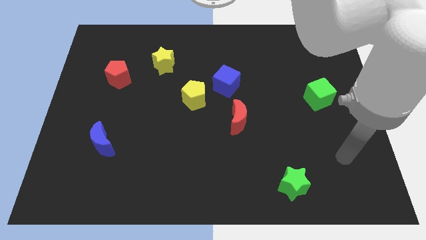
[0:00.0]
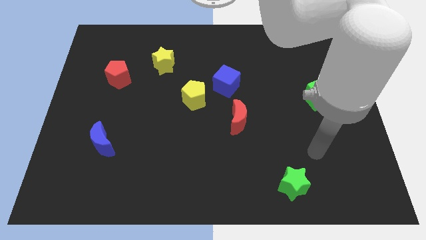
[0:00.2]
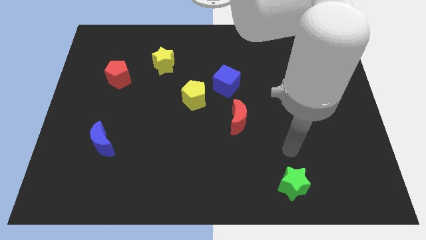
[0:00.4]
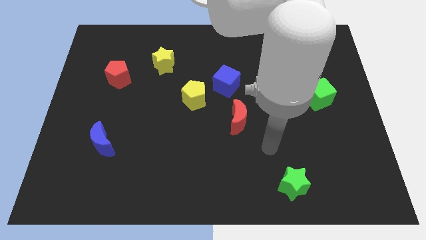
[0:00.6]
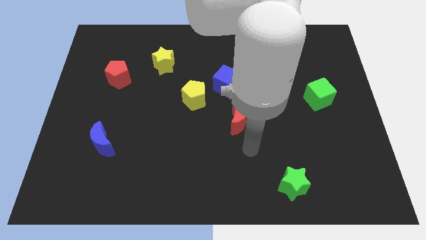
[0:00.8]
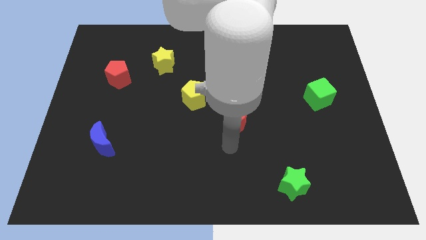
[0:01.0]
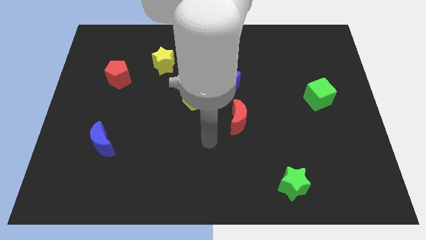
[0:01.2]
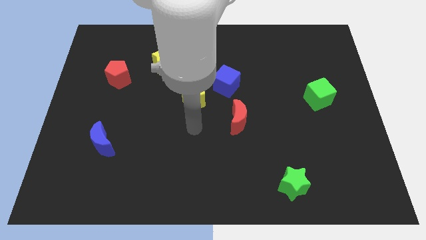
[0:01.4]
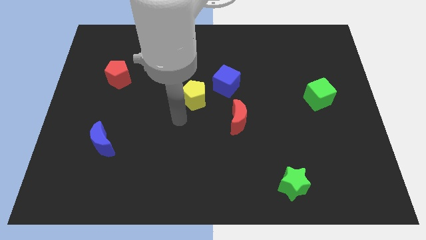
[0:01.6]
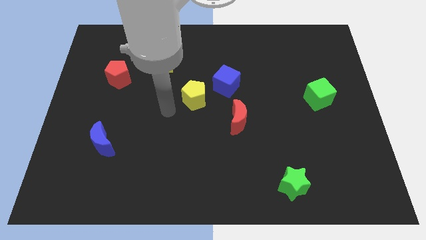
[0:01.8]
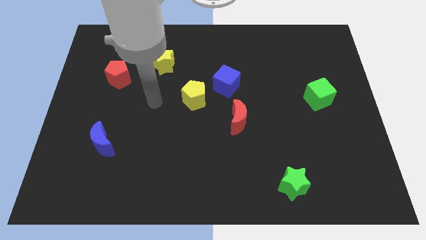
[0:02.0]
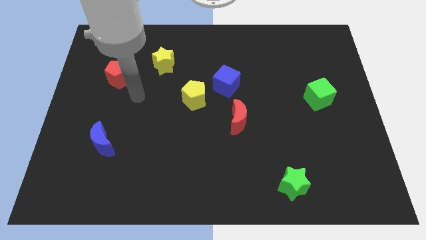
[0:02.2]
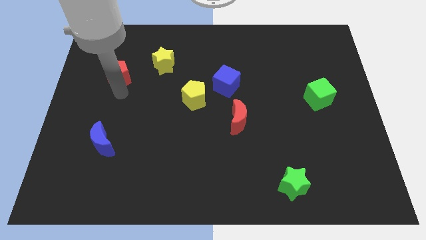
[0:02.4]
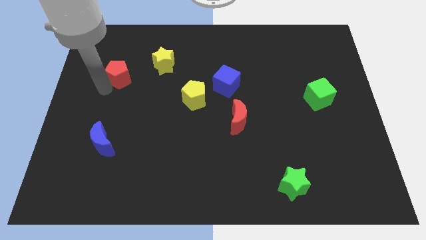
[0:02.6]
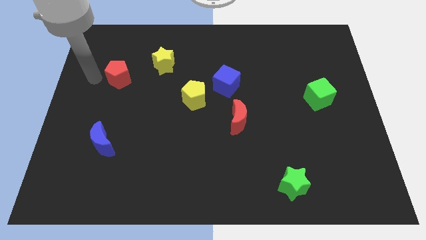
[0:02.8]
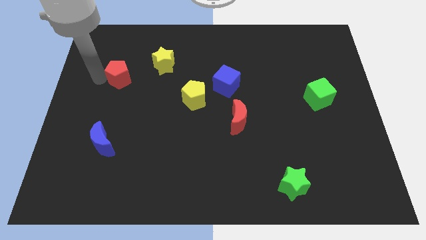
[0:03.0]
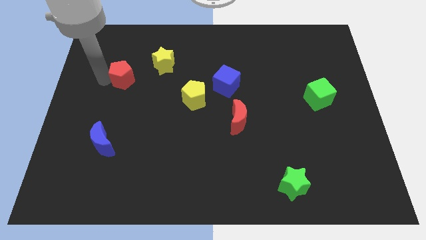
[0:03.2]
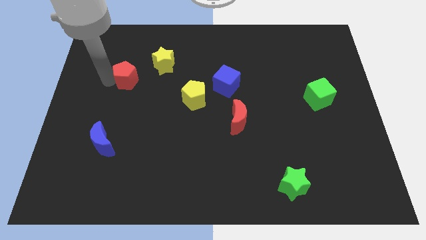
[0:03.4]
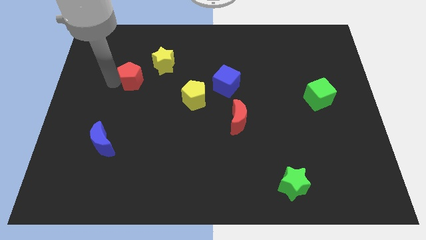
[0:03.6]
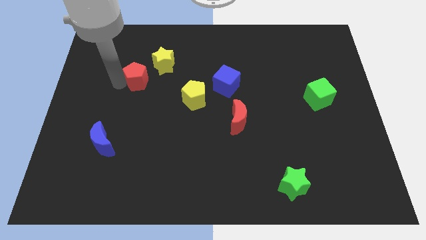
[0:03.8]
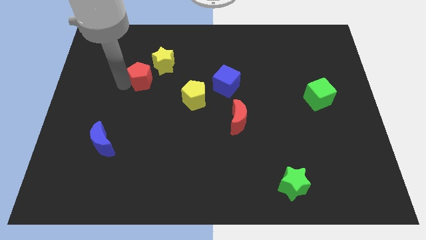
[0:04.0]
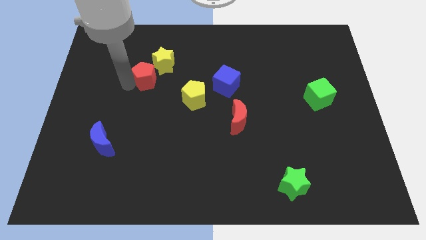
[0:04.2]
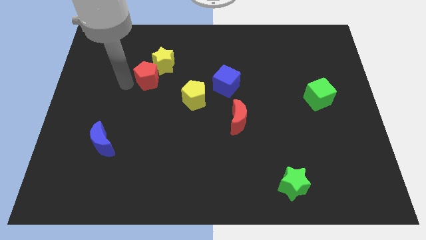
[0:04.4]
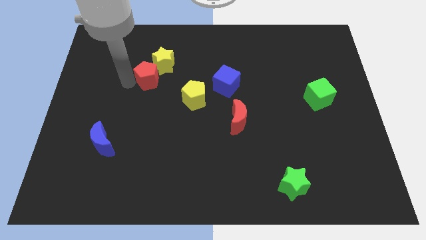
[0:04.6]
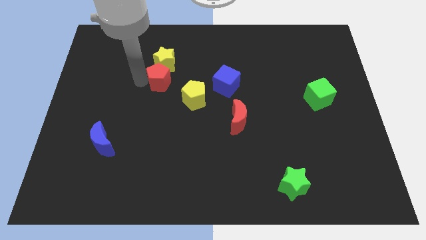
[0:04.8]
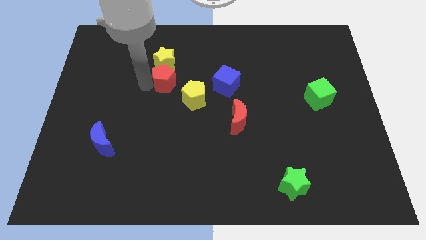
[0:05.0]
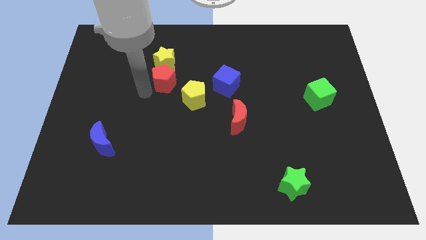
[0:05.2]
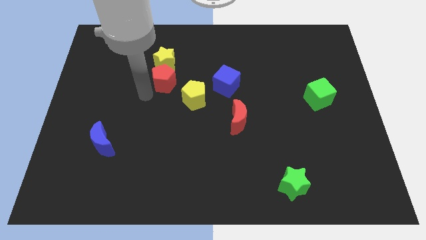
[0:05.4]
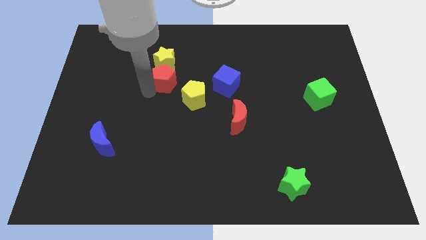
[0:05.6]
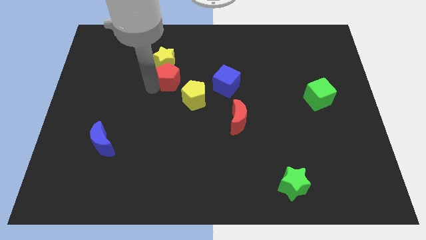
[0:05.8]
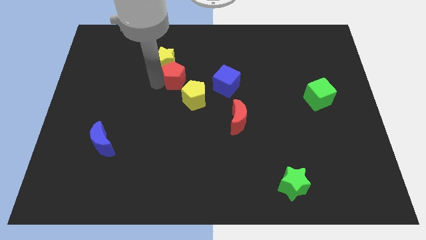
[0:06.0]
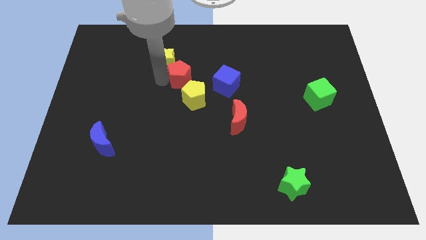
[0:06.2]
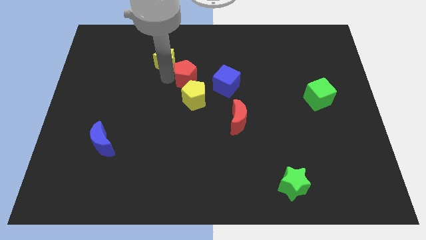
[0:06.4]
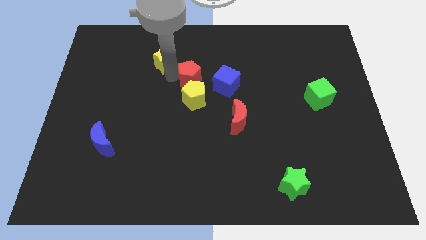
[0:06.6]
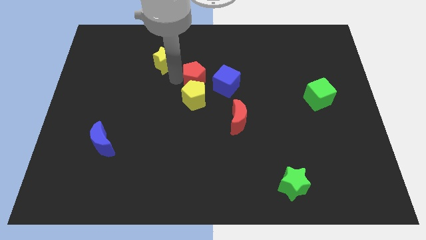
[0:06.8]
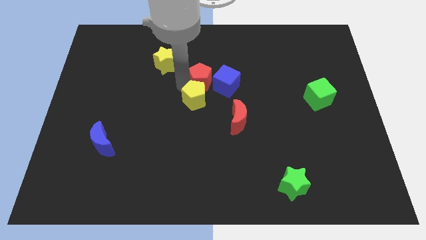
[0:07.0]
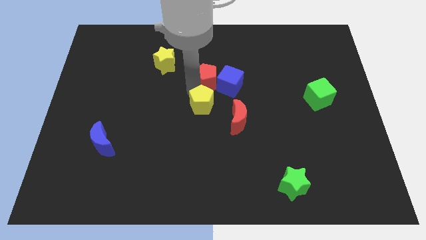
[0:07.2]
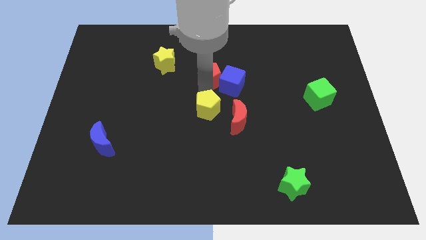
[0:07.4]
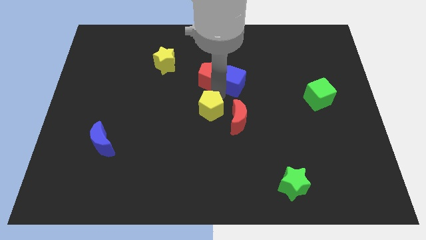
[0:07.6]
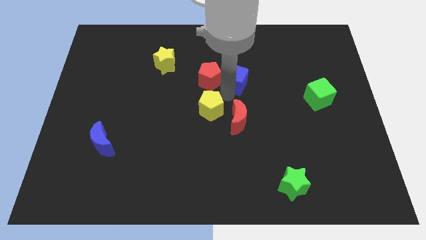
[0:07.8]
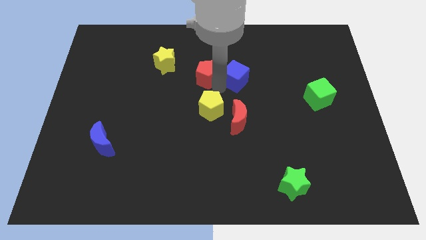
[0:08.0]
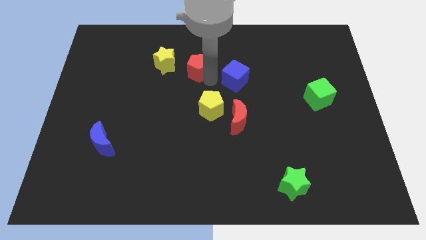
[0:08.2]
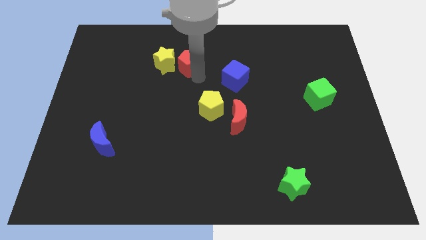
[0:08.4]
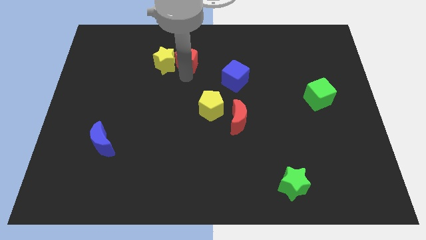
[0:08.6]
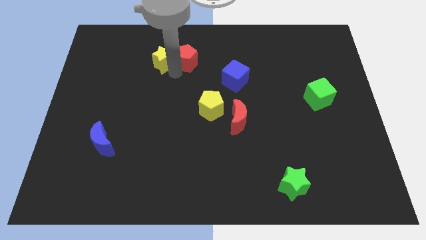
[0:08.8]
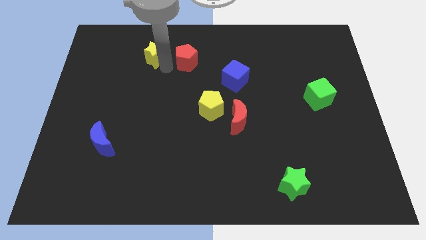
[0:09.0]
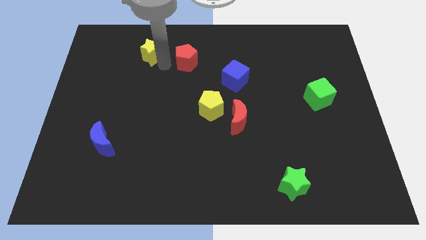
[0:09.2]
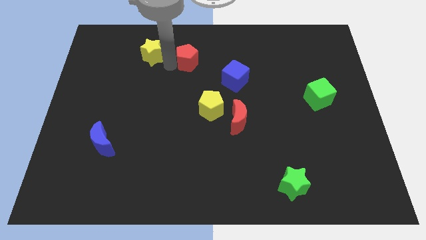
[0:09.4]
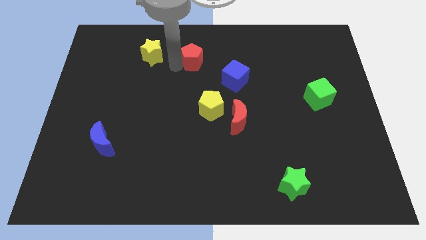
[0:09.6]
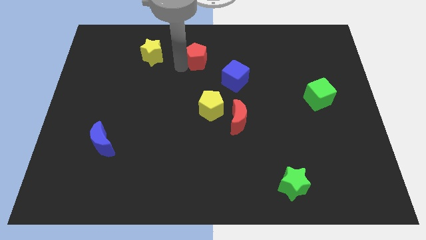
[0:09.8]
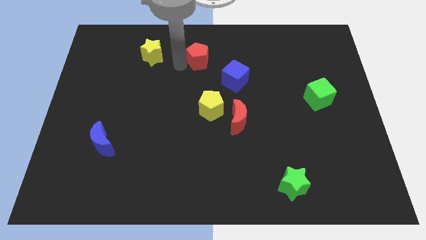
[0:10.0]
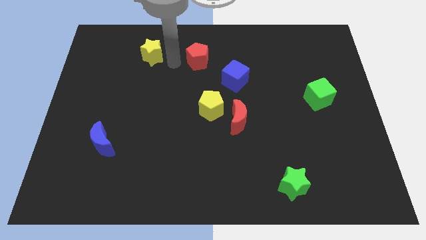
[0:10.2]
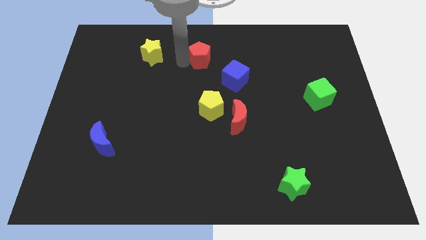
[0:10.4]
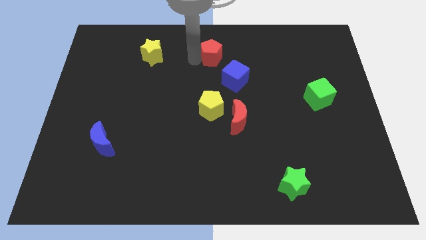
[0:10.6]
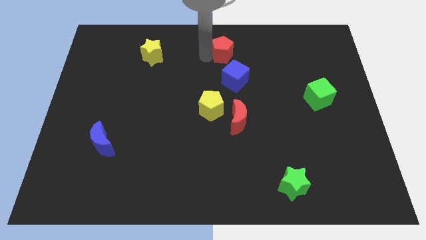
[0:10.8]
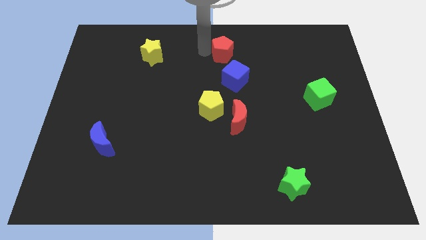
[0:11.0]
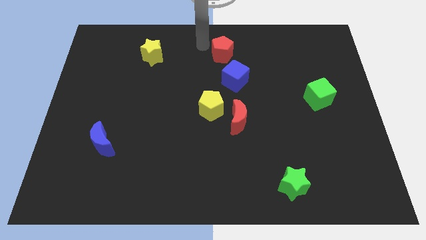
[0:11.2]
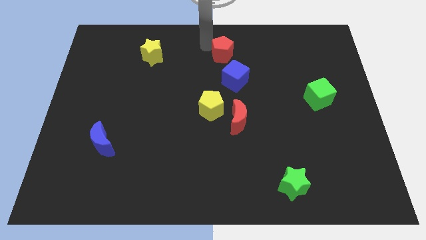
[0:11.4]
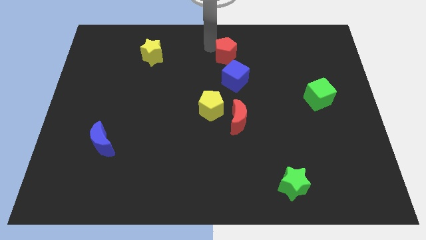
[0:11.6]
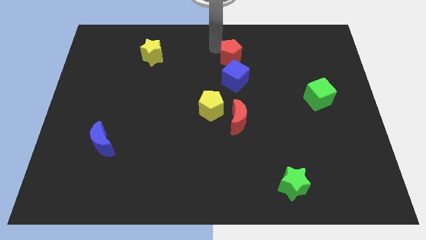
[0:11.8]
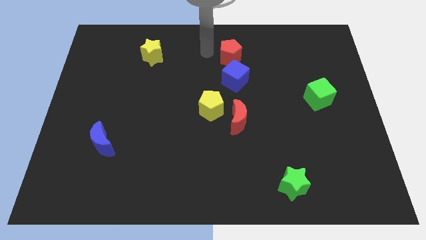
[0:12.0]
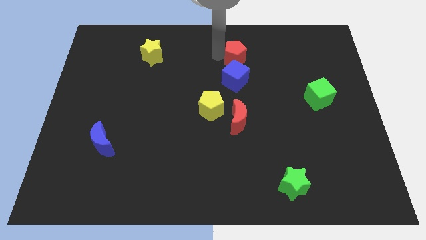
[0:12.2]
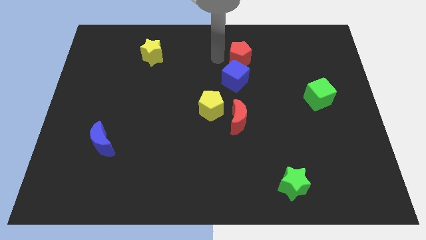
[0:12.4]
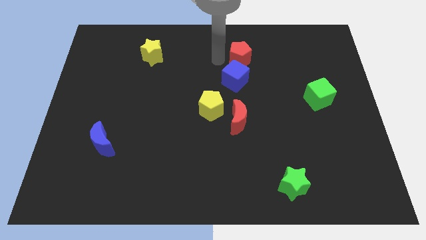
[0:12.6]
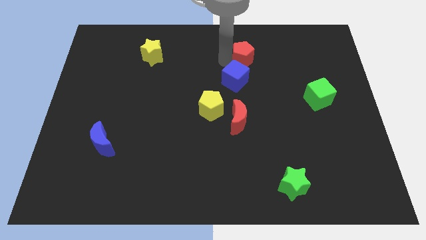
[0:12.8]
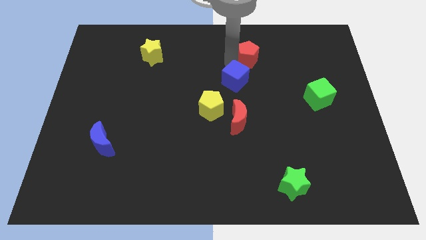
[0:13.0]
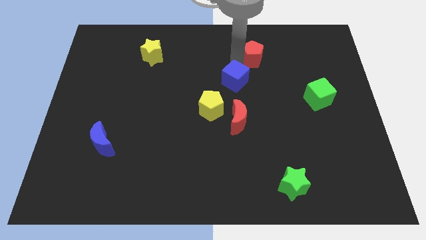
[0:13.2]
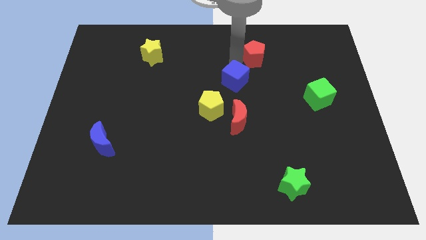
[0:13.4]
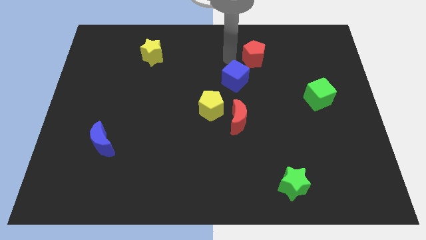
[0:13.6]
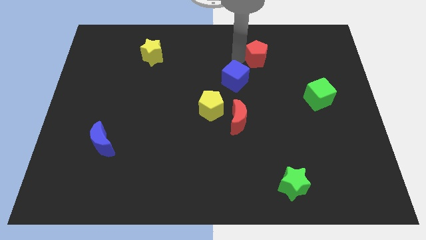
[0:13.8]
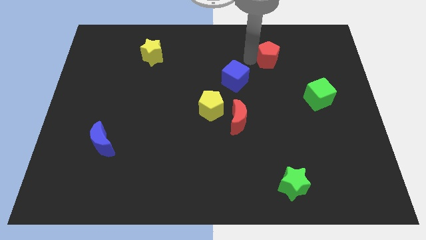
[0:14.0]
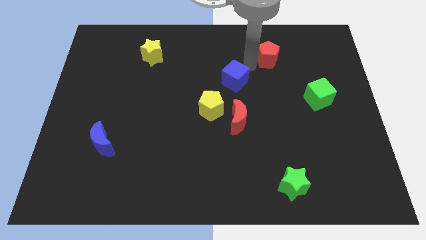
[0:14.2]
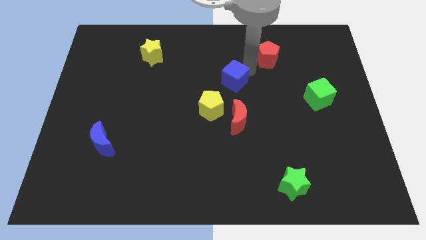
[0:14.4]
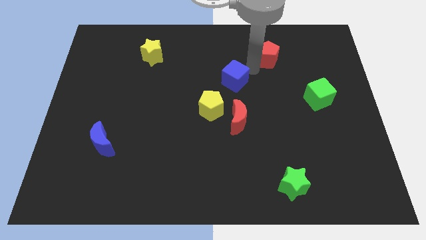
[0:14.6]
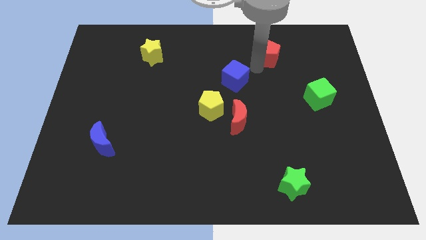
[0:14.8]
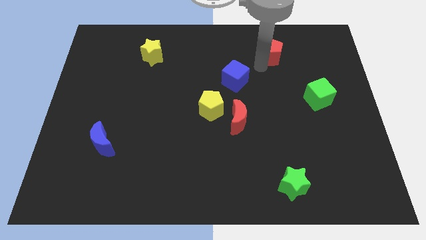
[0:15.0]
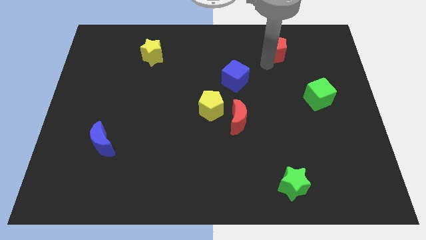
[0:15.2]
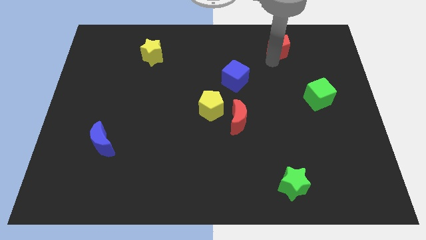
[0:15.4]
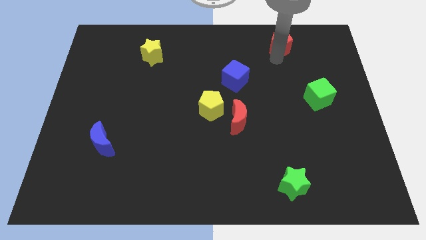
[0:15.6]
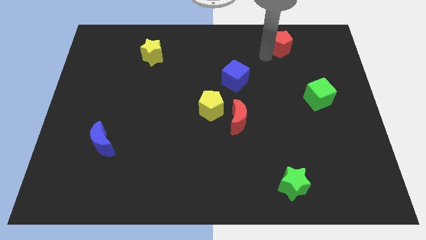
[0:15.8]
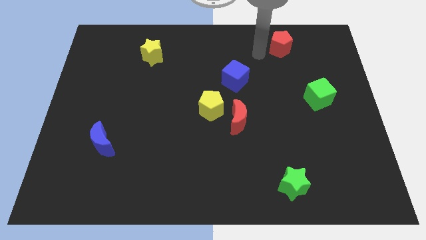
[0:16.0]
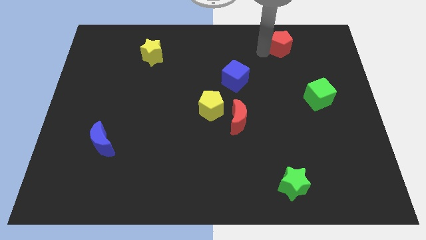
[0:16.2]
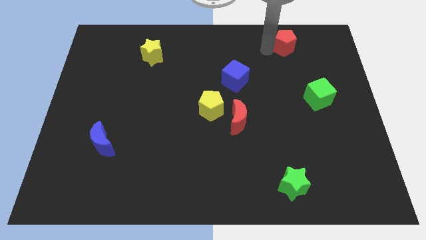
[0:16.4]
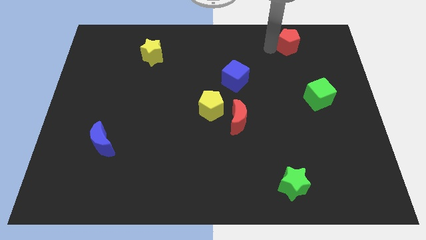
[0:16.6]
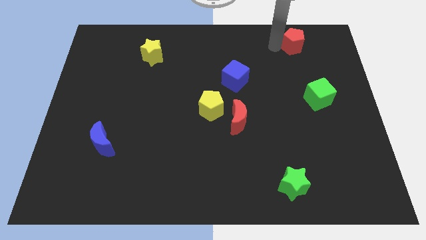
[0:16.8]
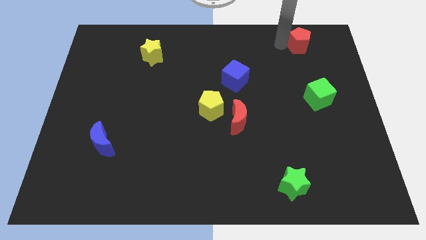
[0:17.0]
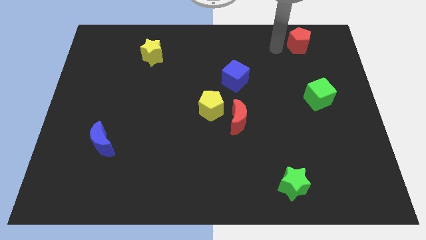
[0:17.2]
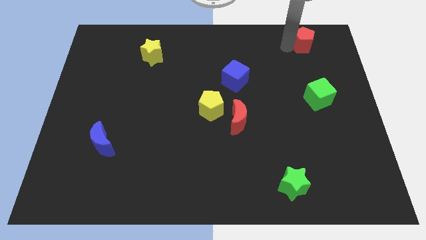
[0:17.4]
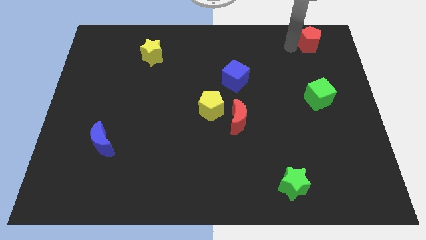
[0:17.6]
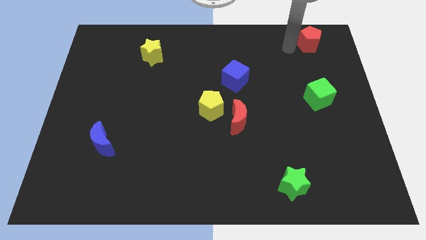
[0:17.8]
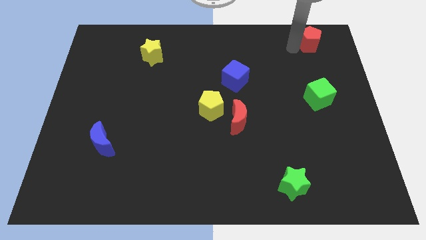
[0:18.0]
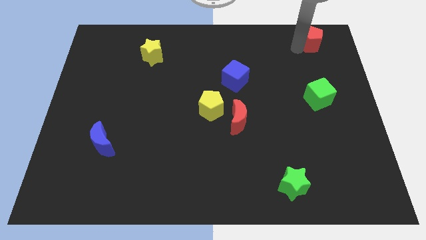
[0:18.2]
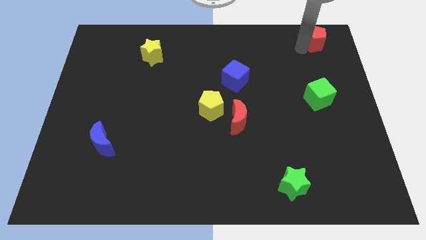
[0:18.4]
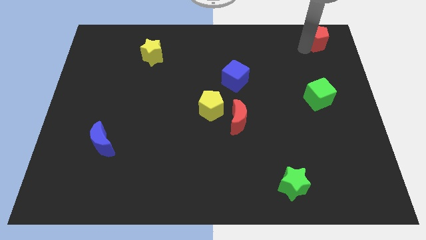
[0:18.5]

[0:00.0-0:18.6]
move the red pentagon to the top right
